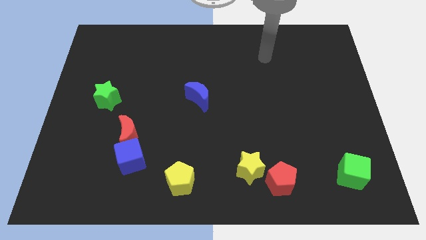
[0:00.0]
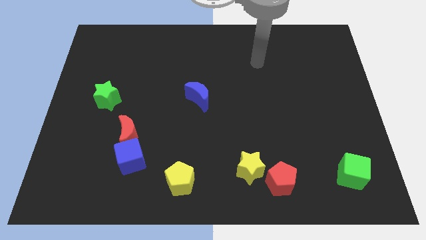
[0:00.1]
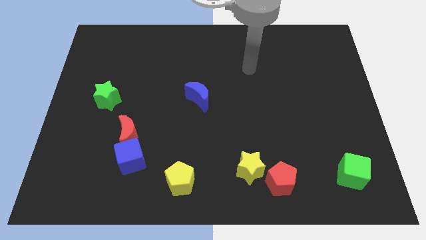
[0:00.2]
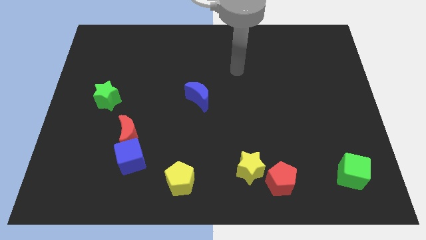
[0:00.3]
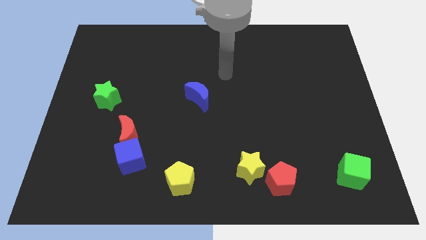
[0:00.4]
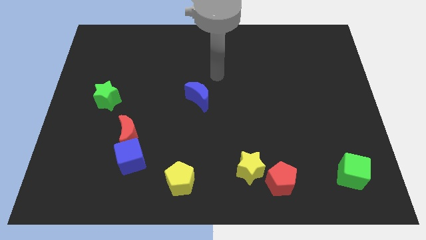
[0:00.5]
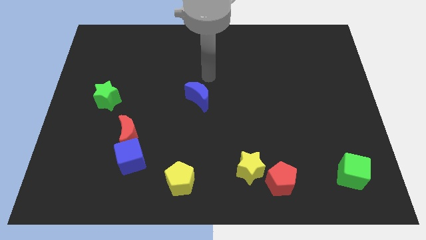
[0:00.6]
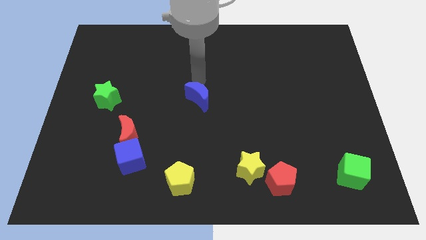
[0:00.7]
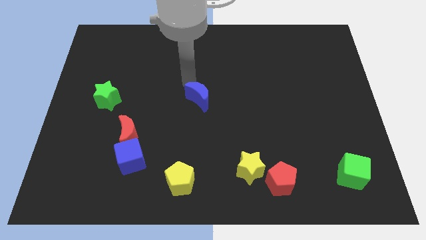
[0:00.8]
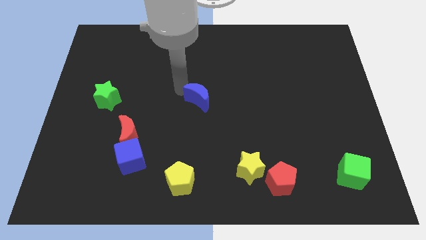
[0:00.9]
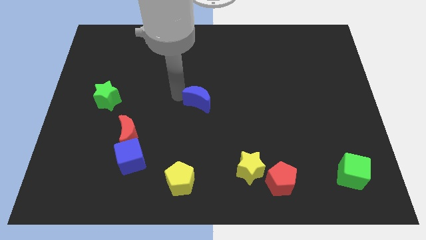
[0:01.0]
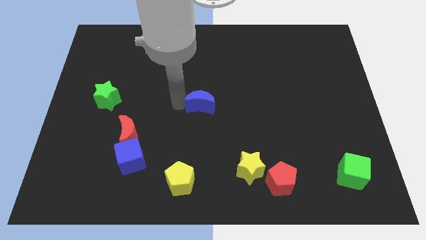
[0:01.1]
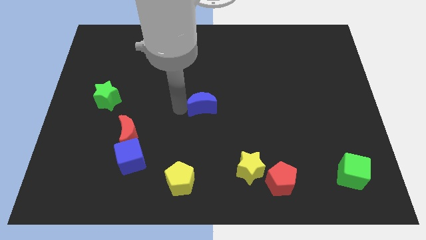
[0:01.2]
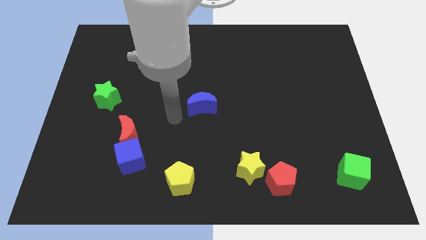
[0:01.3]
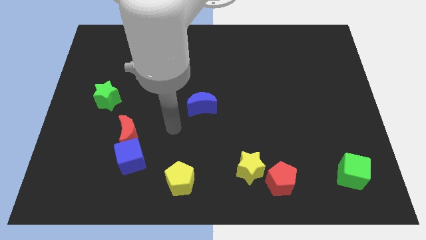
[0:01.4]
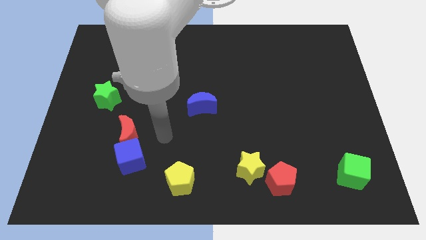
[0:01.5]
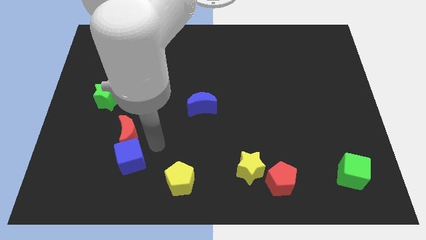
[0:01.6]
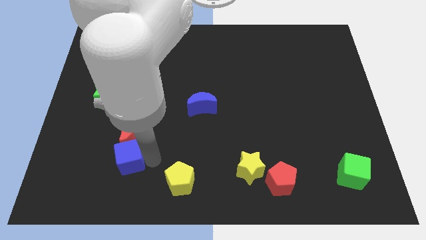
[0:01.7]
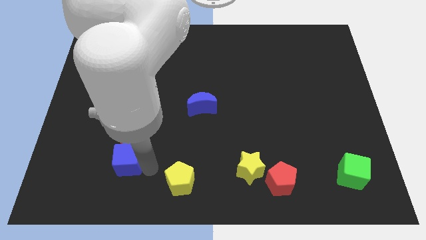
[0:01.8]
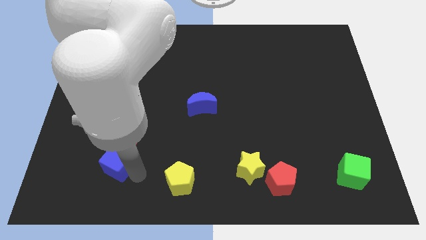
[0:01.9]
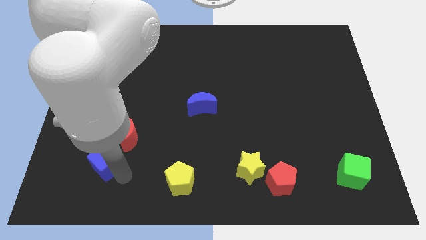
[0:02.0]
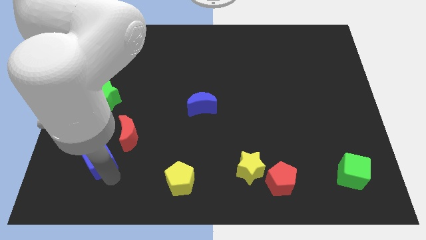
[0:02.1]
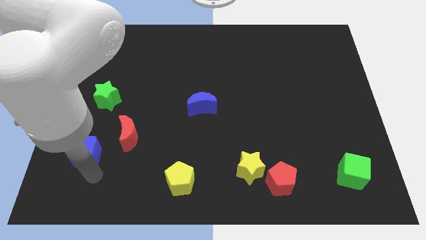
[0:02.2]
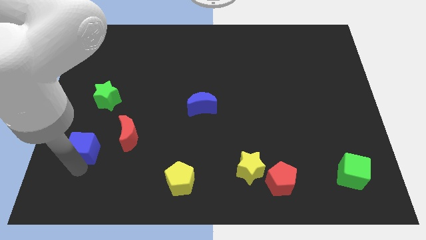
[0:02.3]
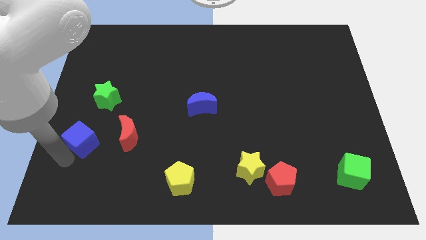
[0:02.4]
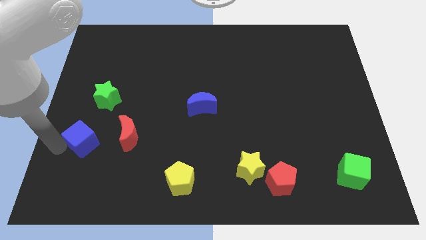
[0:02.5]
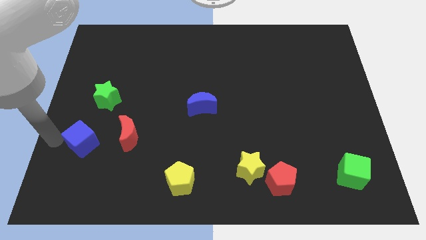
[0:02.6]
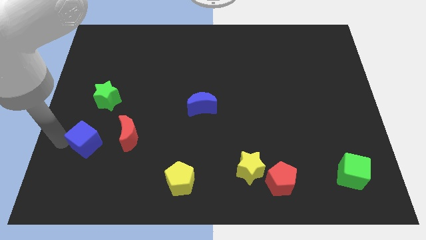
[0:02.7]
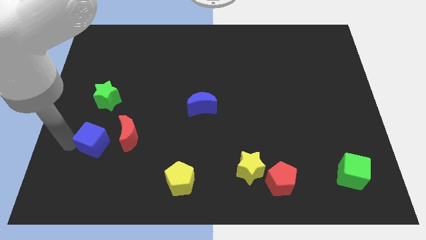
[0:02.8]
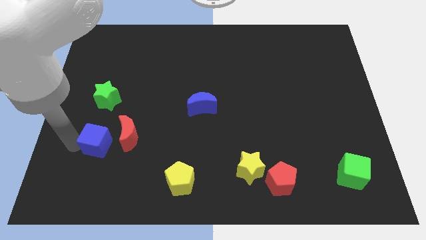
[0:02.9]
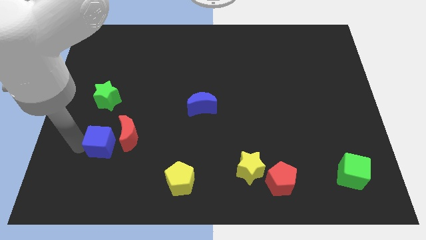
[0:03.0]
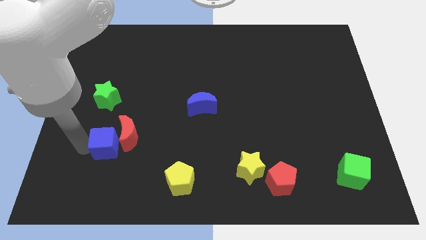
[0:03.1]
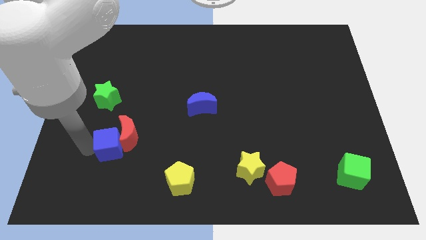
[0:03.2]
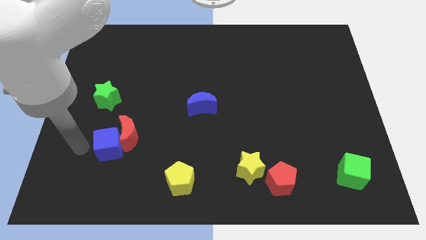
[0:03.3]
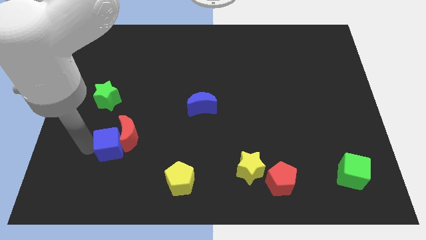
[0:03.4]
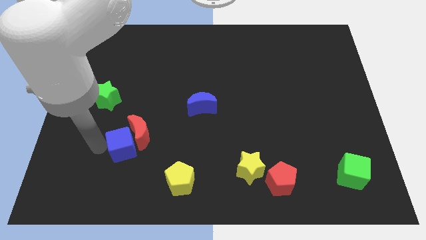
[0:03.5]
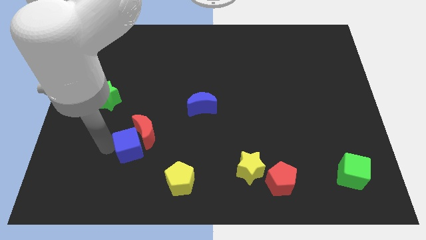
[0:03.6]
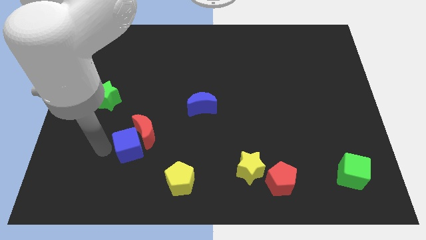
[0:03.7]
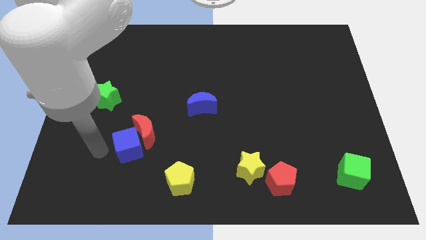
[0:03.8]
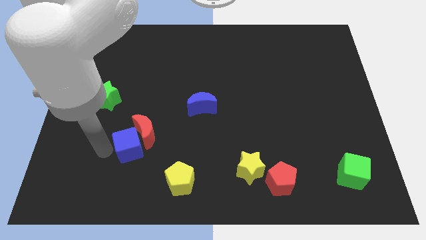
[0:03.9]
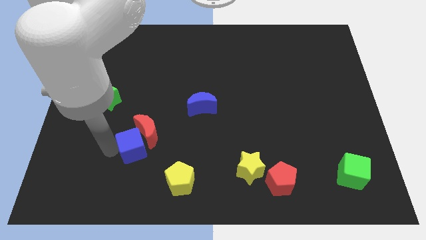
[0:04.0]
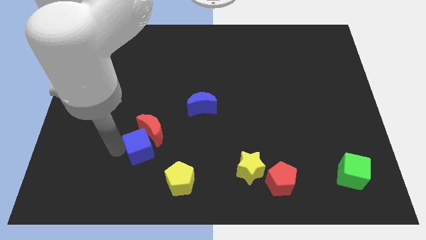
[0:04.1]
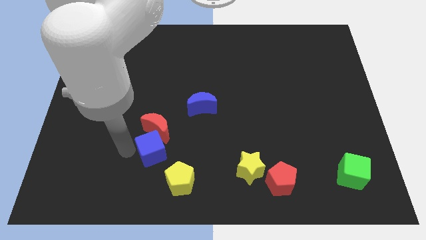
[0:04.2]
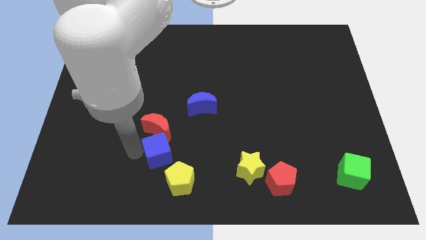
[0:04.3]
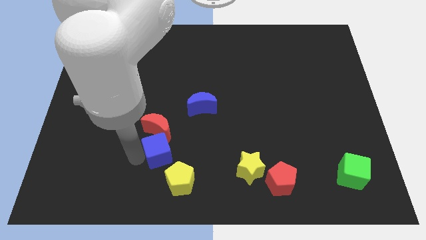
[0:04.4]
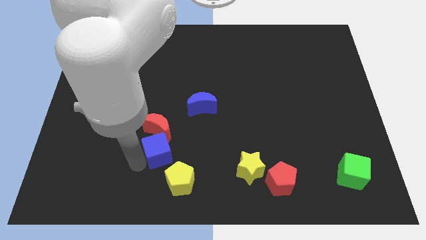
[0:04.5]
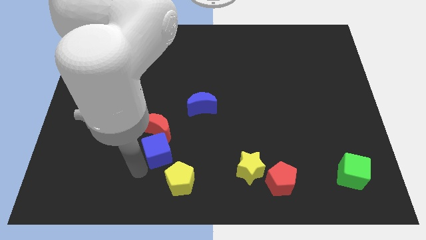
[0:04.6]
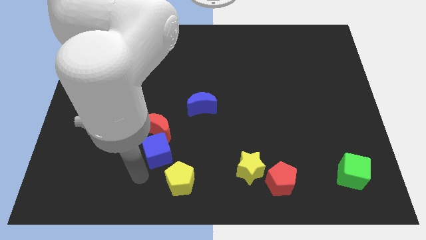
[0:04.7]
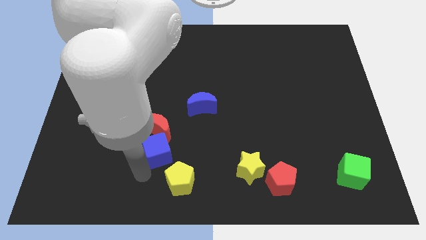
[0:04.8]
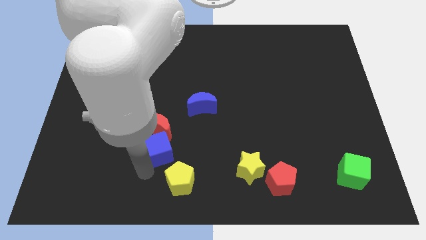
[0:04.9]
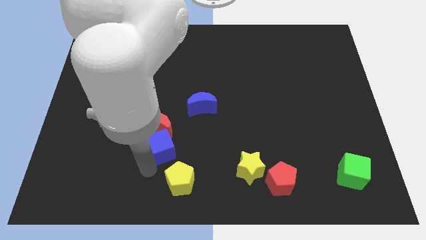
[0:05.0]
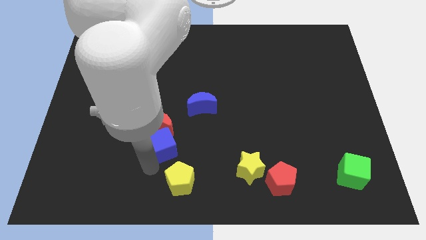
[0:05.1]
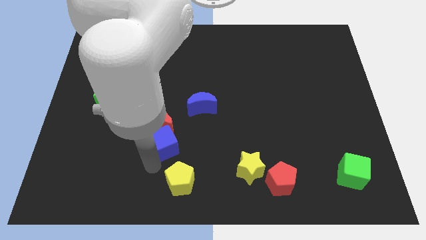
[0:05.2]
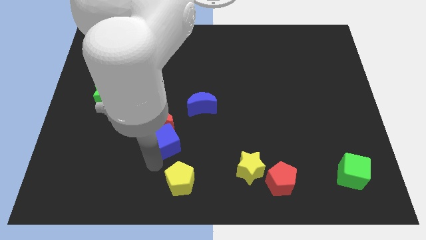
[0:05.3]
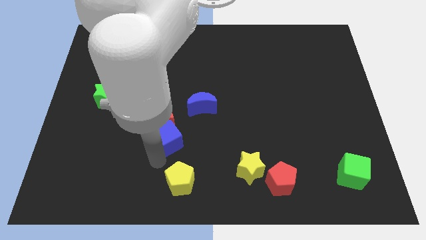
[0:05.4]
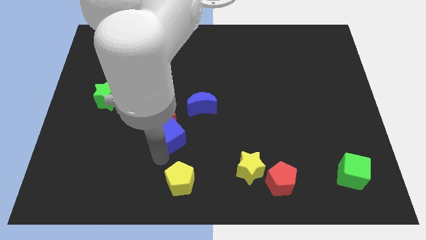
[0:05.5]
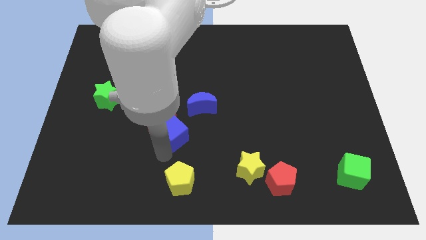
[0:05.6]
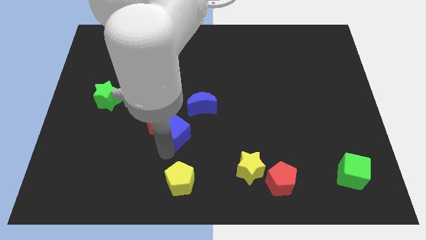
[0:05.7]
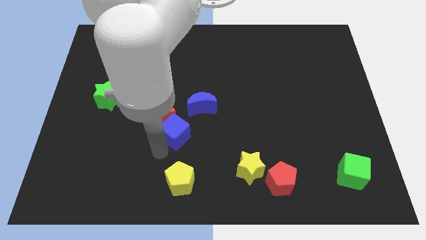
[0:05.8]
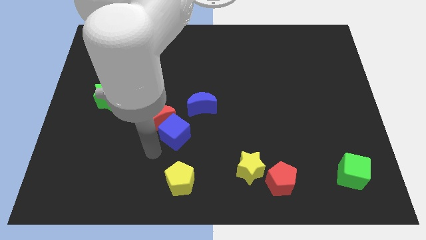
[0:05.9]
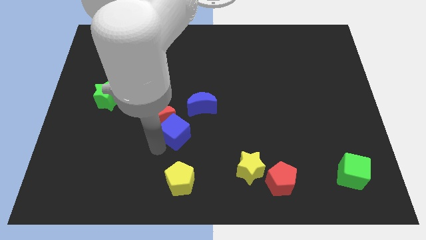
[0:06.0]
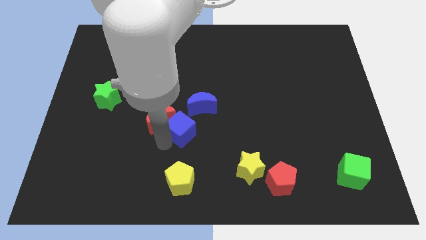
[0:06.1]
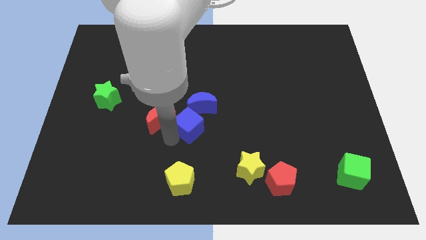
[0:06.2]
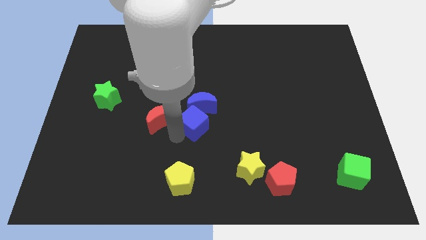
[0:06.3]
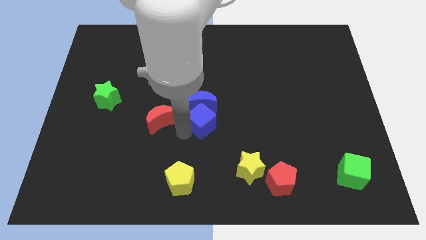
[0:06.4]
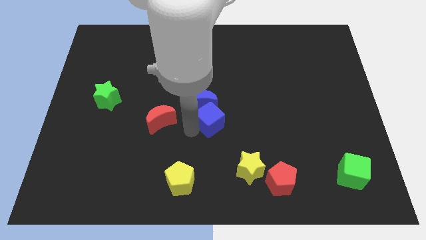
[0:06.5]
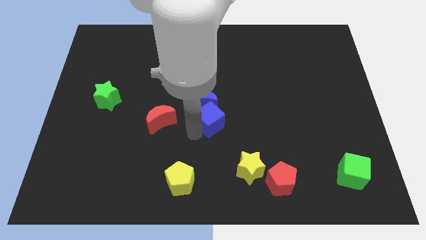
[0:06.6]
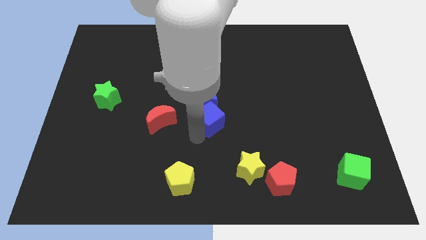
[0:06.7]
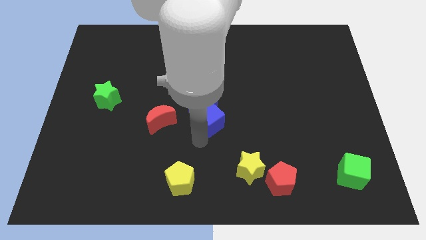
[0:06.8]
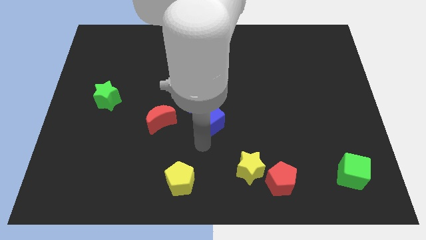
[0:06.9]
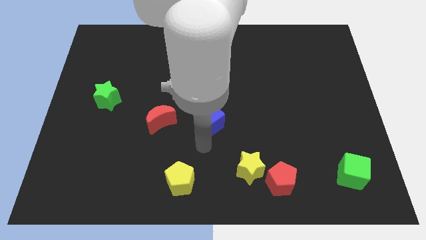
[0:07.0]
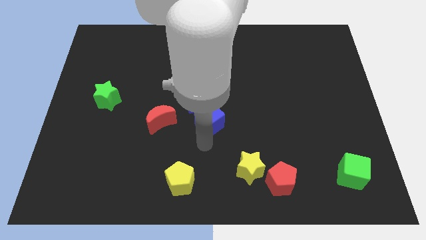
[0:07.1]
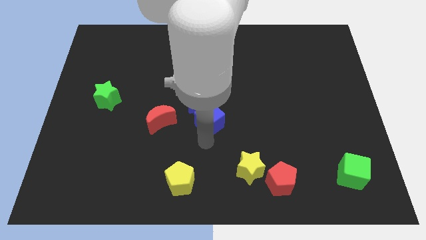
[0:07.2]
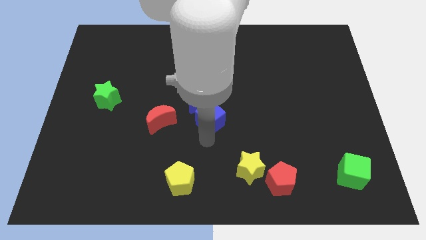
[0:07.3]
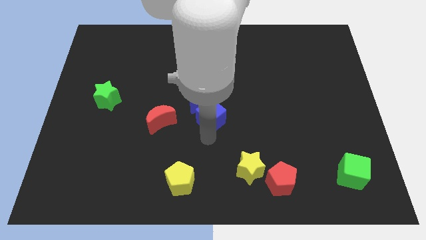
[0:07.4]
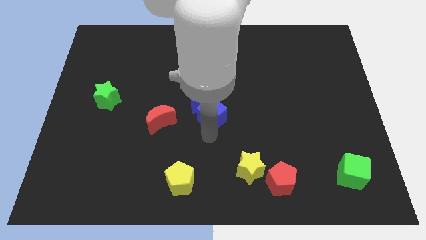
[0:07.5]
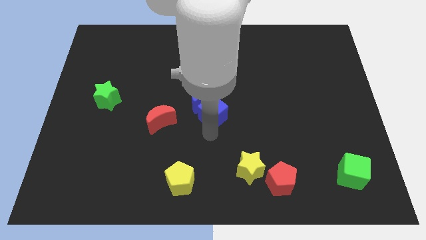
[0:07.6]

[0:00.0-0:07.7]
push the blue cube upwards and to the right

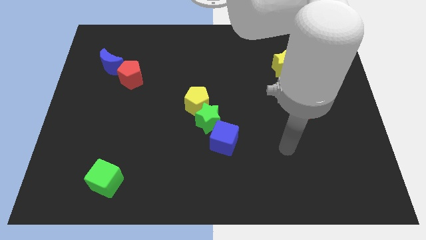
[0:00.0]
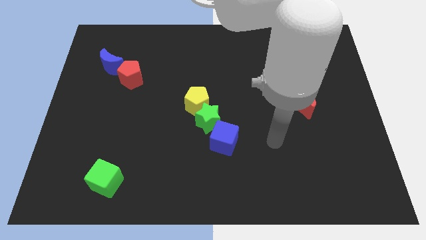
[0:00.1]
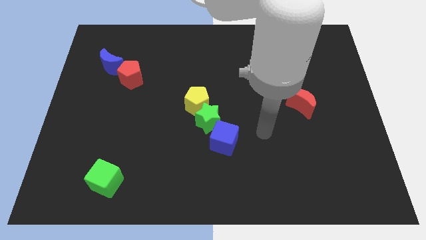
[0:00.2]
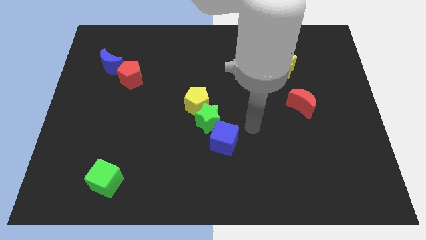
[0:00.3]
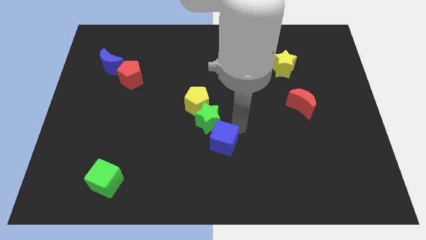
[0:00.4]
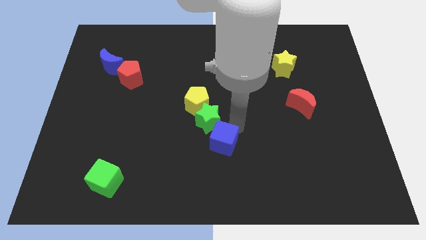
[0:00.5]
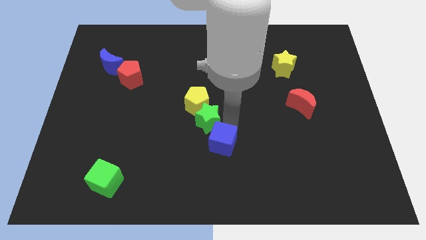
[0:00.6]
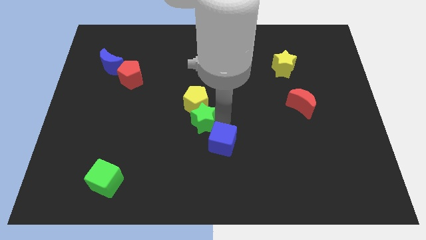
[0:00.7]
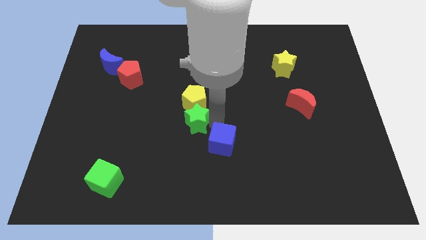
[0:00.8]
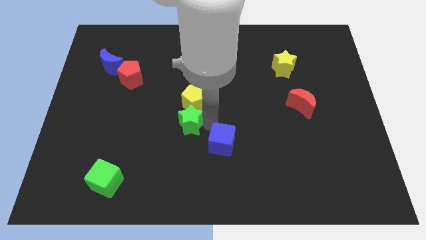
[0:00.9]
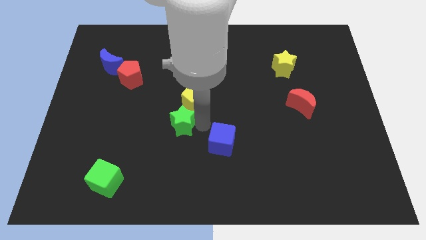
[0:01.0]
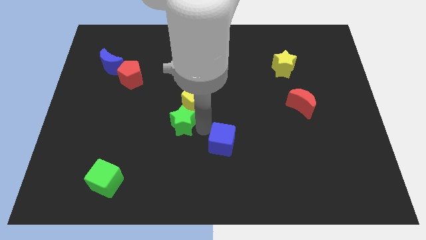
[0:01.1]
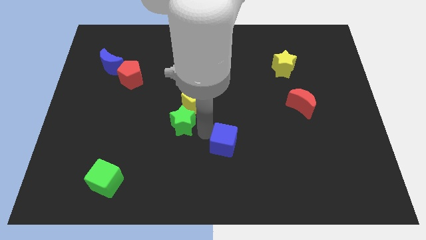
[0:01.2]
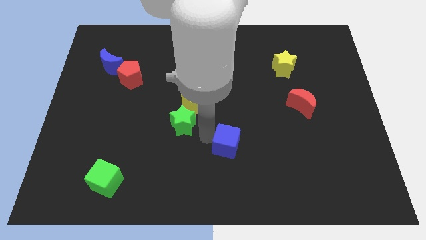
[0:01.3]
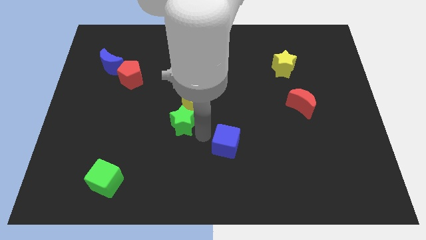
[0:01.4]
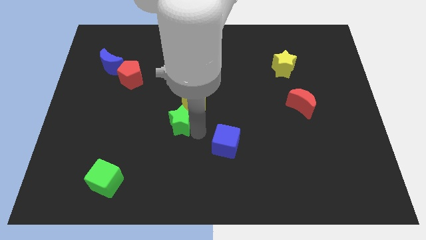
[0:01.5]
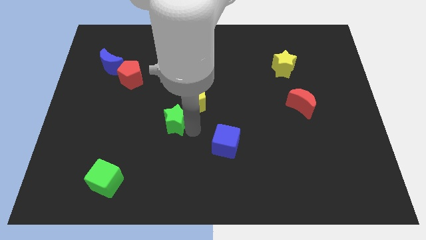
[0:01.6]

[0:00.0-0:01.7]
slide the green star to the left a bit
